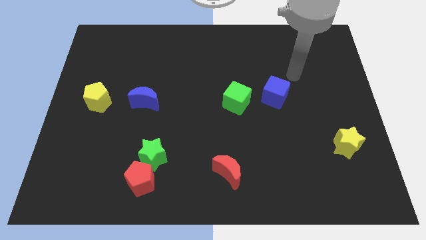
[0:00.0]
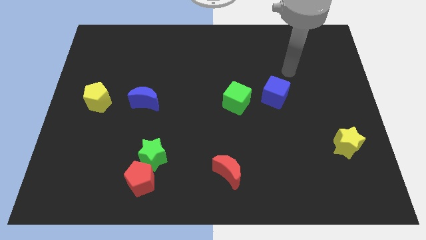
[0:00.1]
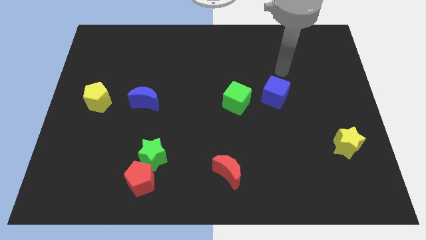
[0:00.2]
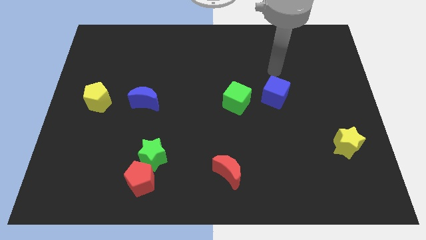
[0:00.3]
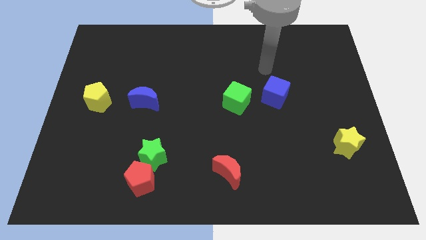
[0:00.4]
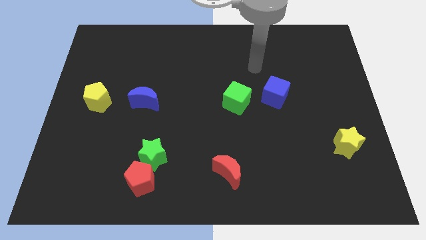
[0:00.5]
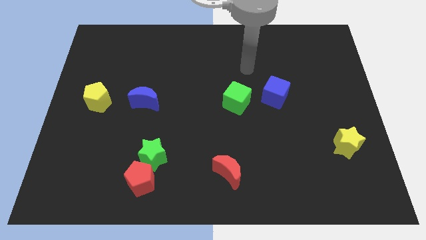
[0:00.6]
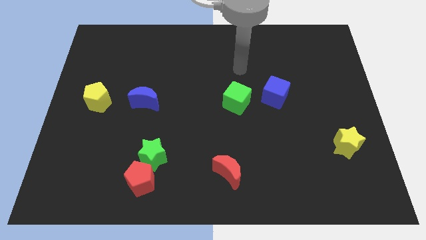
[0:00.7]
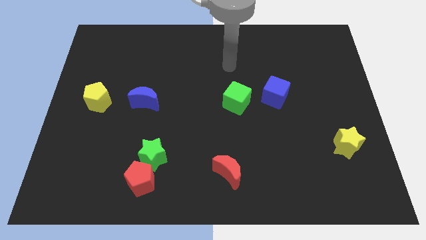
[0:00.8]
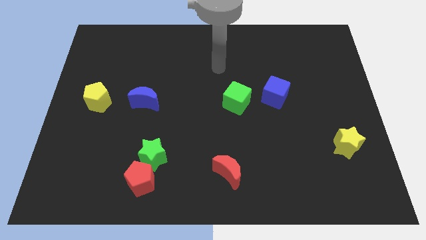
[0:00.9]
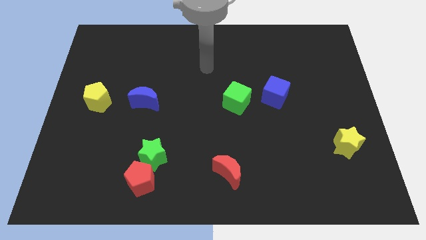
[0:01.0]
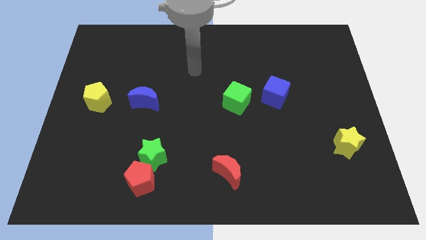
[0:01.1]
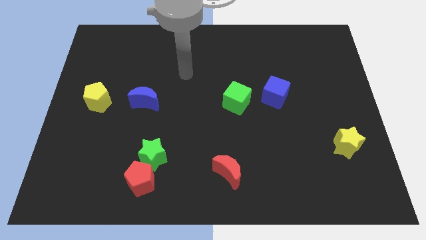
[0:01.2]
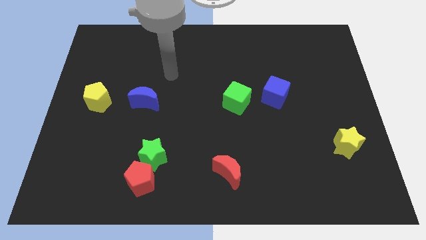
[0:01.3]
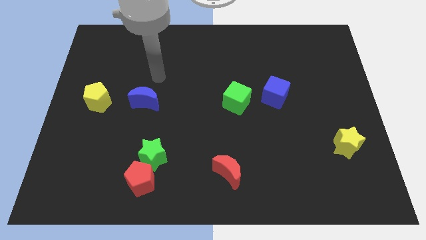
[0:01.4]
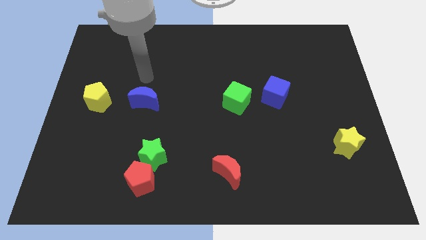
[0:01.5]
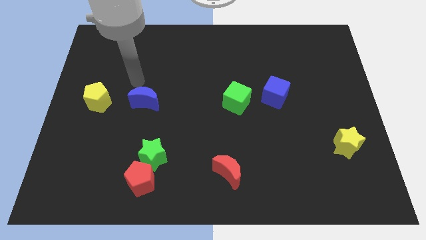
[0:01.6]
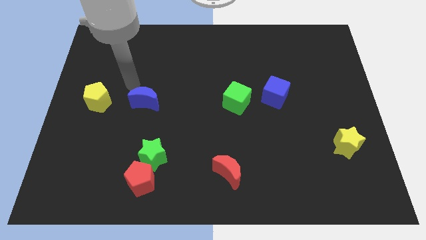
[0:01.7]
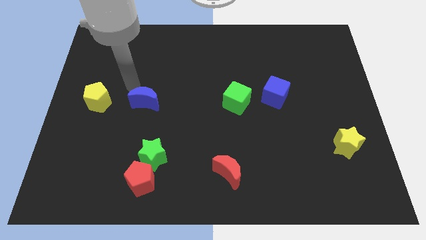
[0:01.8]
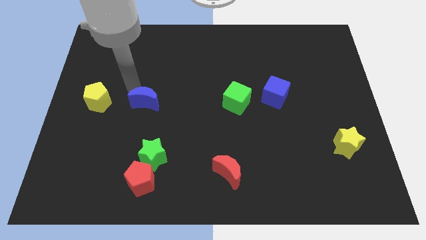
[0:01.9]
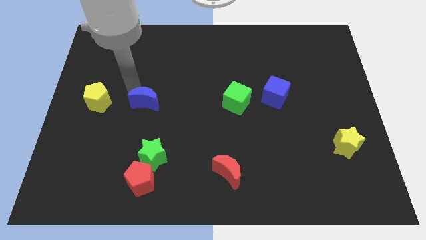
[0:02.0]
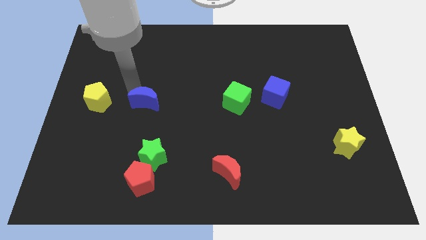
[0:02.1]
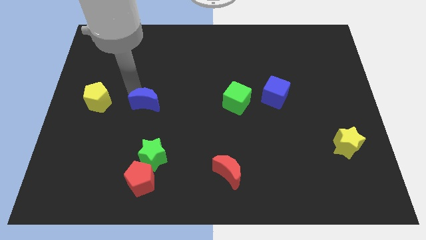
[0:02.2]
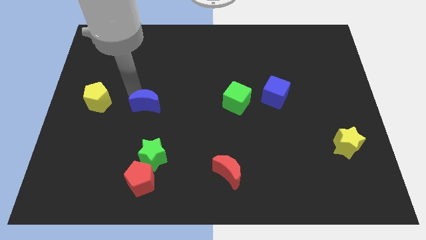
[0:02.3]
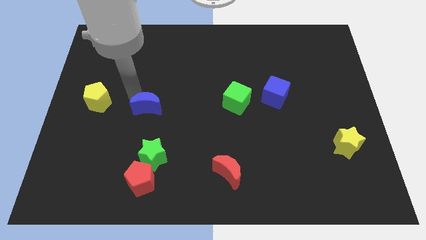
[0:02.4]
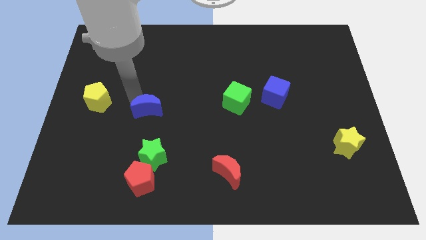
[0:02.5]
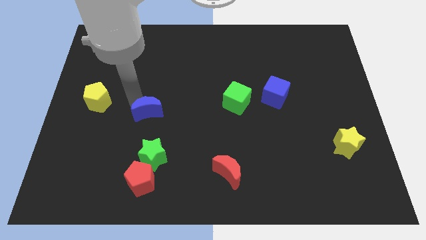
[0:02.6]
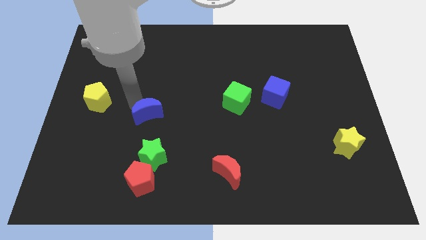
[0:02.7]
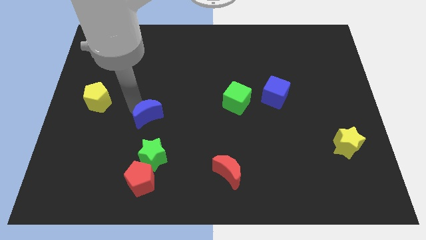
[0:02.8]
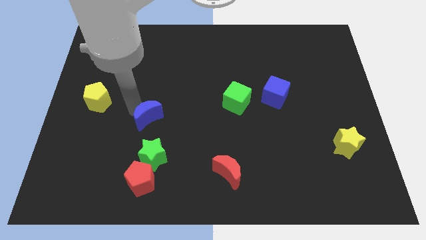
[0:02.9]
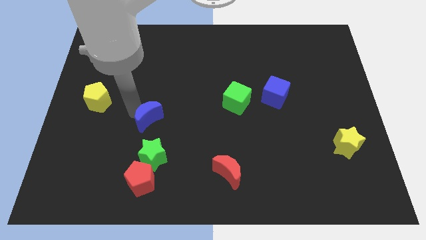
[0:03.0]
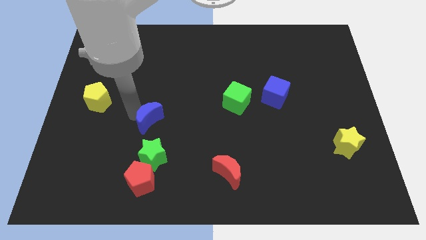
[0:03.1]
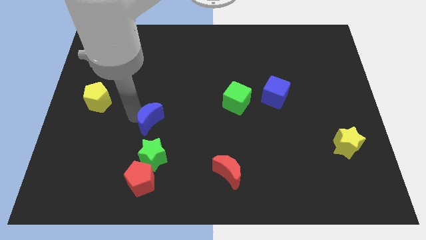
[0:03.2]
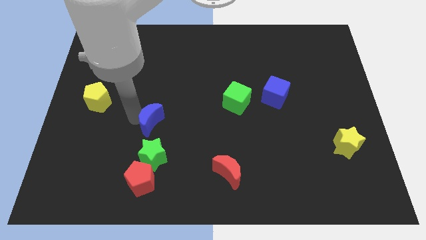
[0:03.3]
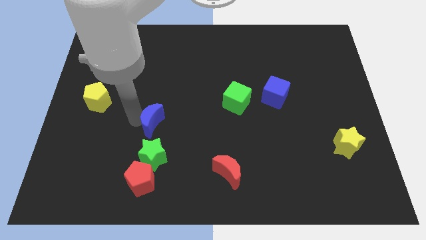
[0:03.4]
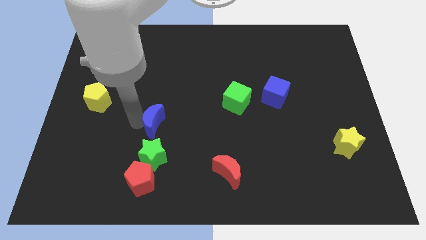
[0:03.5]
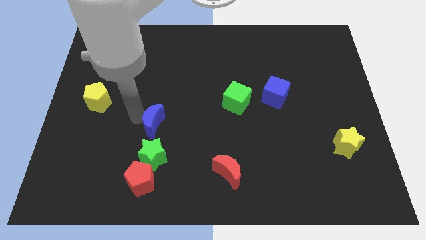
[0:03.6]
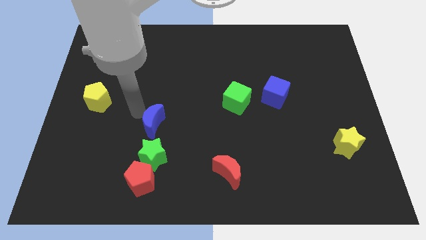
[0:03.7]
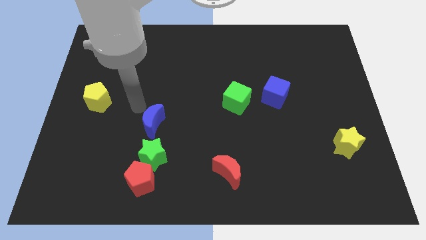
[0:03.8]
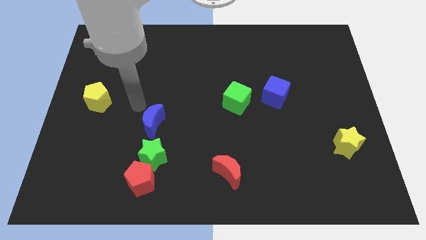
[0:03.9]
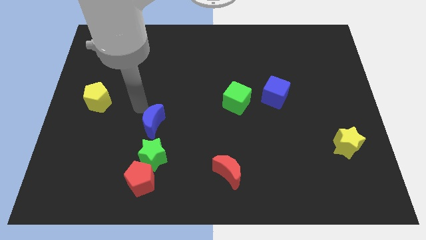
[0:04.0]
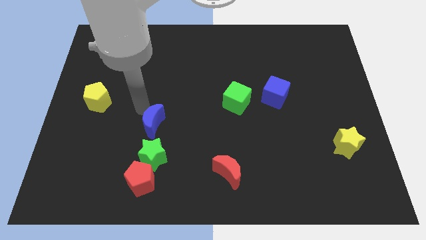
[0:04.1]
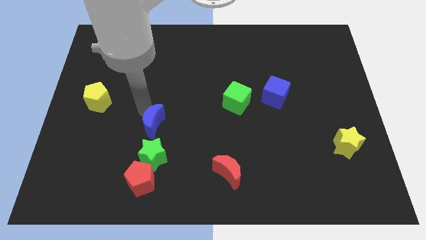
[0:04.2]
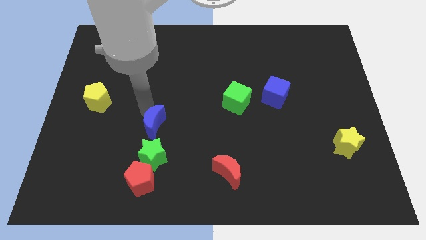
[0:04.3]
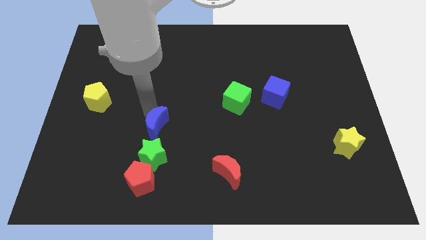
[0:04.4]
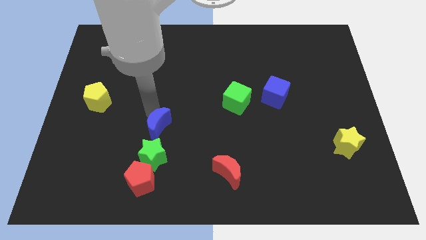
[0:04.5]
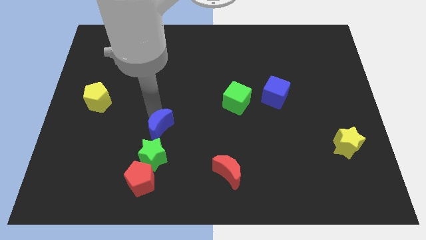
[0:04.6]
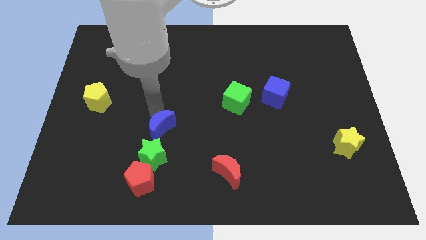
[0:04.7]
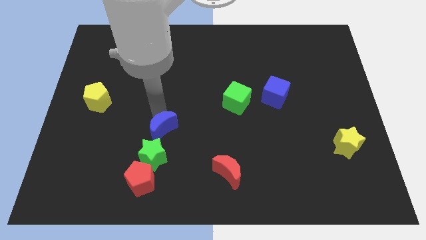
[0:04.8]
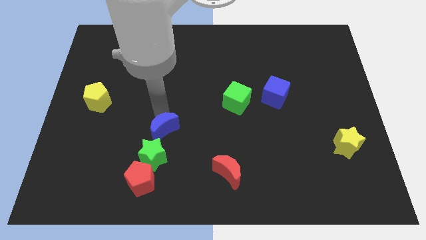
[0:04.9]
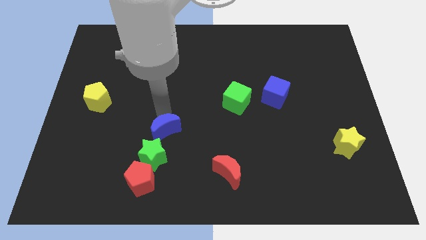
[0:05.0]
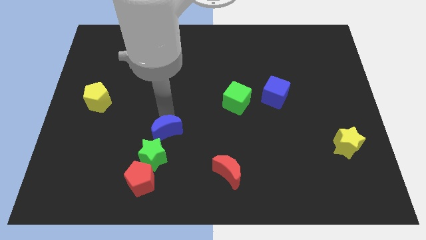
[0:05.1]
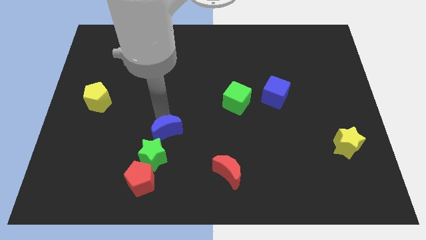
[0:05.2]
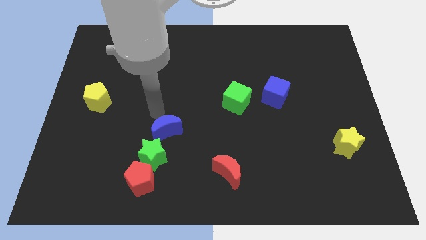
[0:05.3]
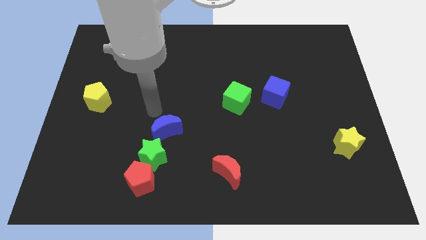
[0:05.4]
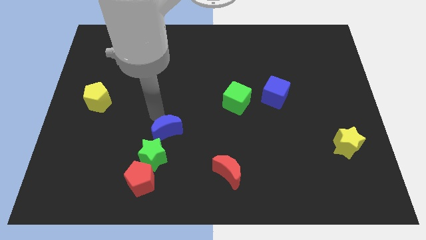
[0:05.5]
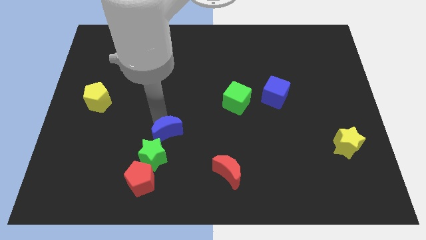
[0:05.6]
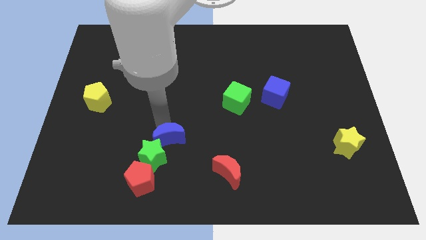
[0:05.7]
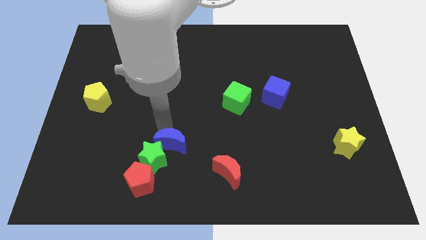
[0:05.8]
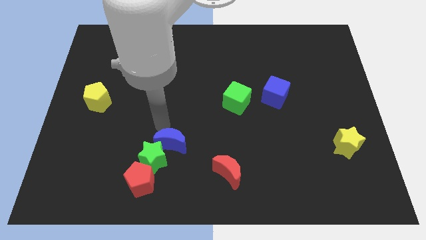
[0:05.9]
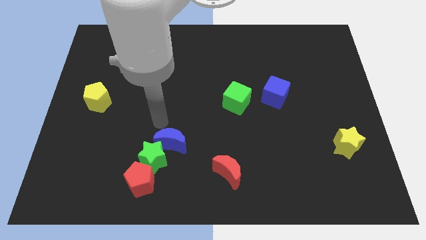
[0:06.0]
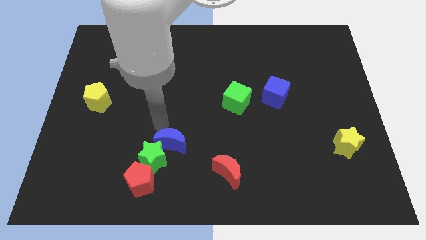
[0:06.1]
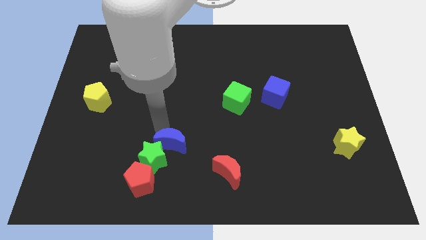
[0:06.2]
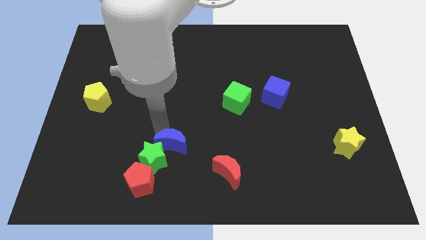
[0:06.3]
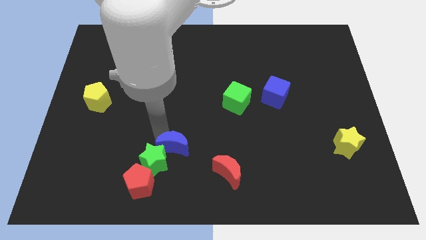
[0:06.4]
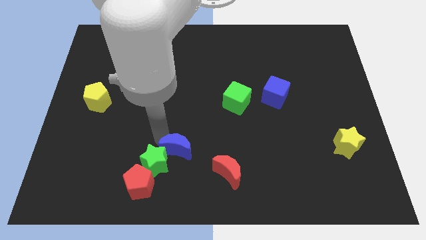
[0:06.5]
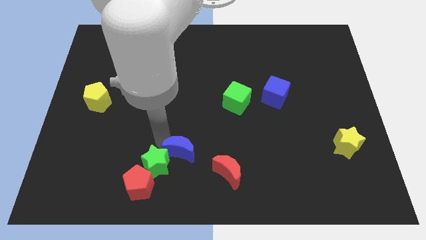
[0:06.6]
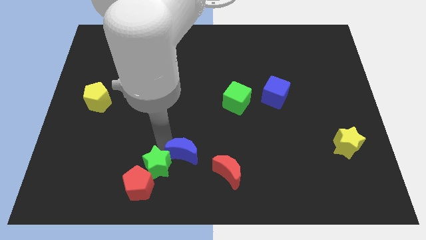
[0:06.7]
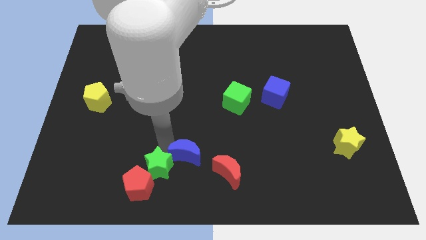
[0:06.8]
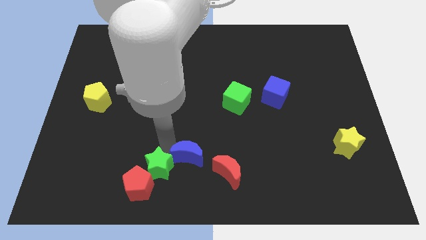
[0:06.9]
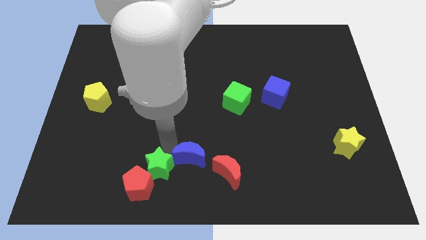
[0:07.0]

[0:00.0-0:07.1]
slide the blue moon to the bottom side
